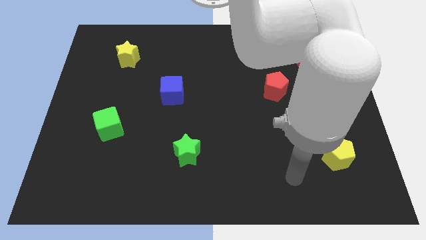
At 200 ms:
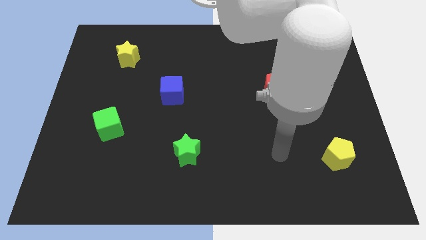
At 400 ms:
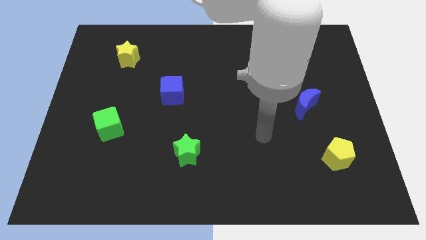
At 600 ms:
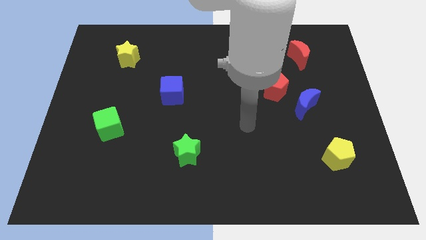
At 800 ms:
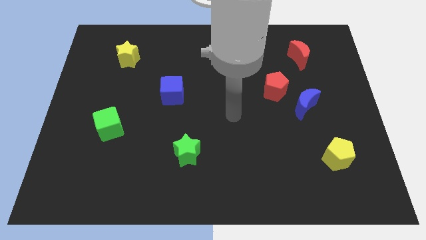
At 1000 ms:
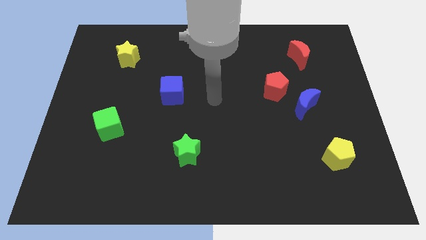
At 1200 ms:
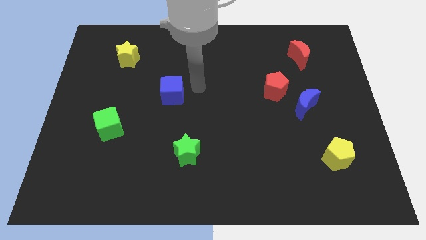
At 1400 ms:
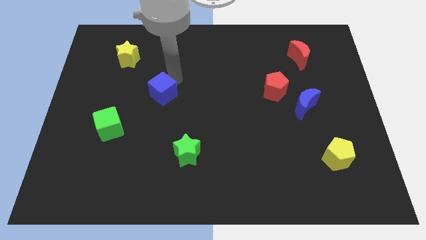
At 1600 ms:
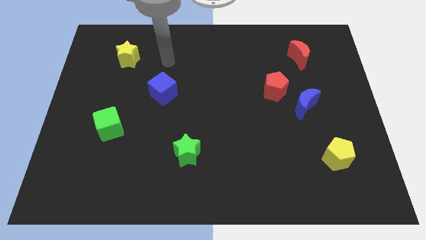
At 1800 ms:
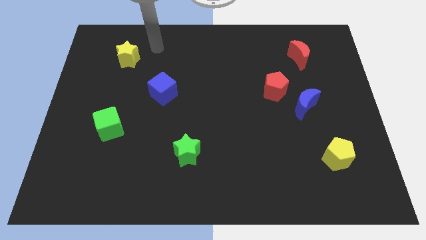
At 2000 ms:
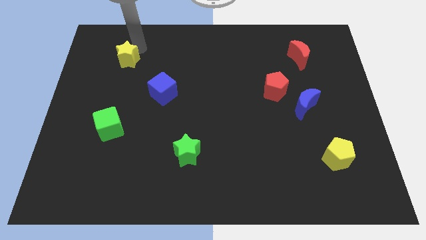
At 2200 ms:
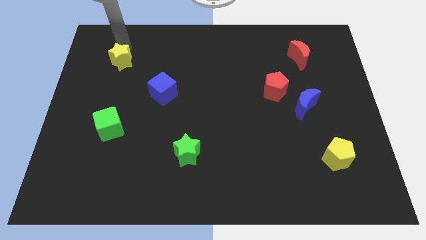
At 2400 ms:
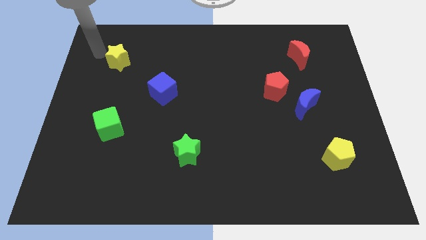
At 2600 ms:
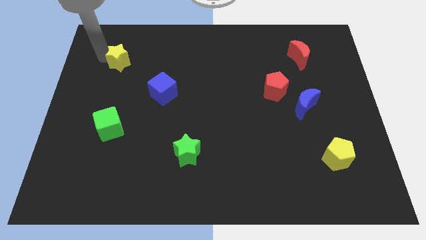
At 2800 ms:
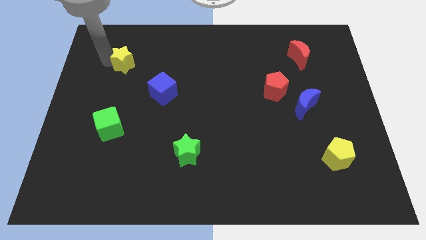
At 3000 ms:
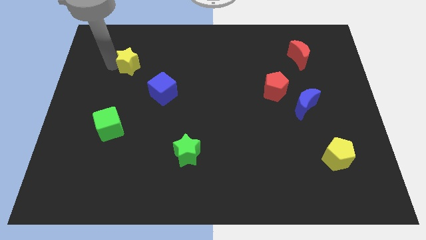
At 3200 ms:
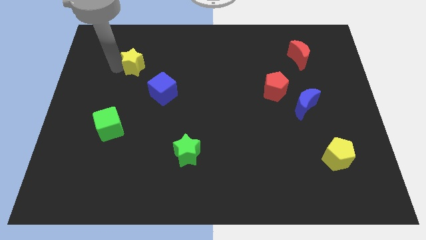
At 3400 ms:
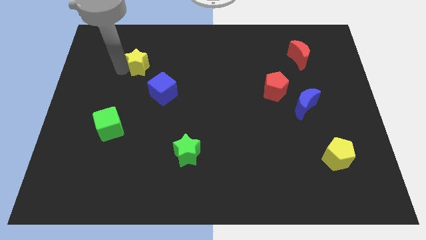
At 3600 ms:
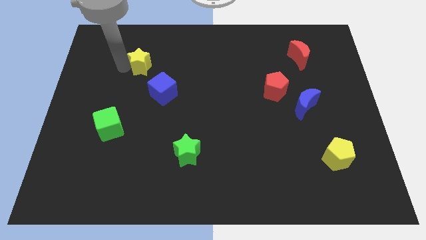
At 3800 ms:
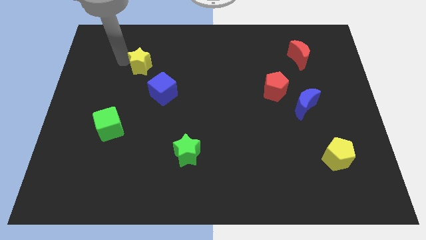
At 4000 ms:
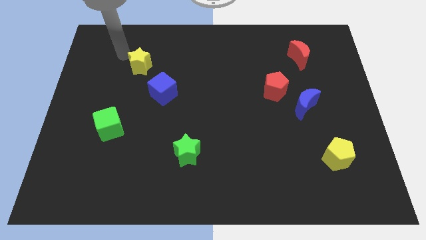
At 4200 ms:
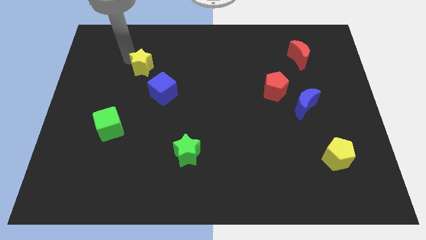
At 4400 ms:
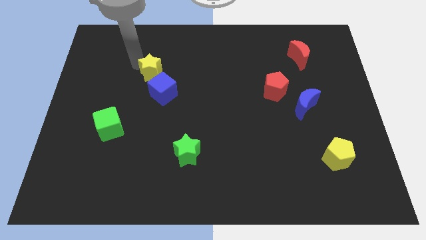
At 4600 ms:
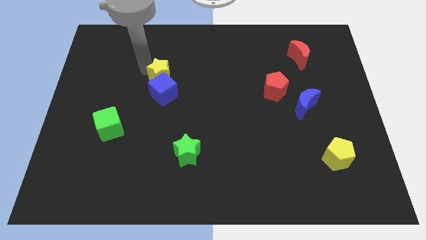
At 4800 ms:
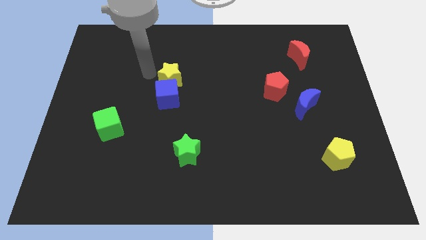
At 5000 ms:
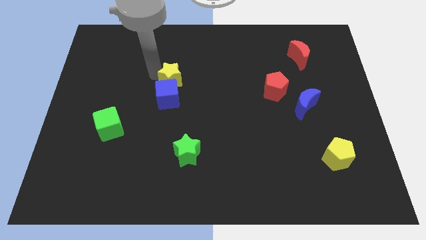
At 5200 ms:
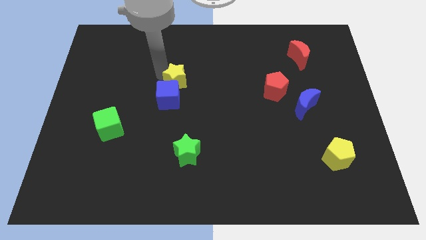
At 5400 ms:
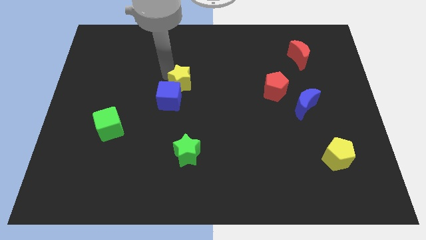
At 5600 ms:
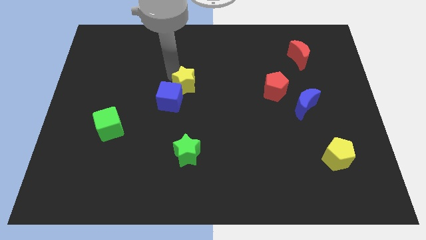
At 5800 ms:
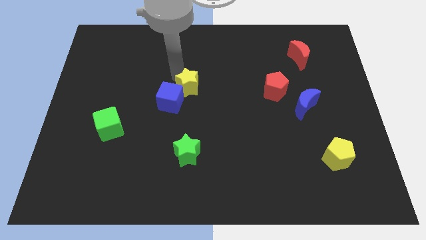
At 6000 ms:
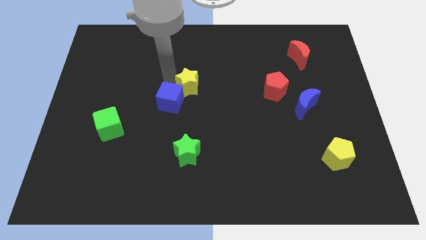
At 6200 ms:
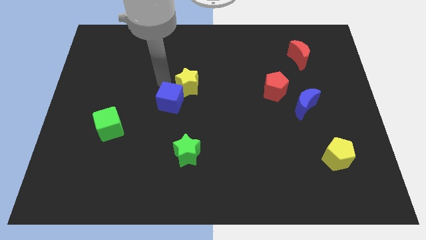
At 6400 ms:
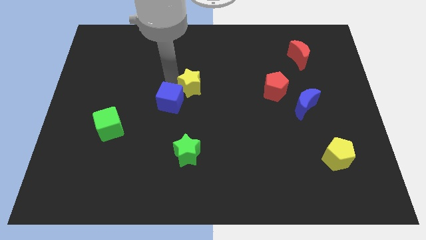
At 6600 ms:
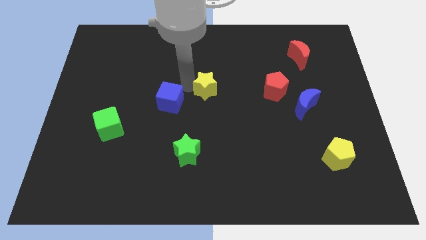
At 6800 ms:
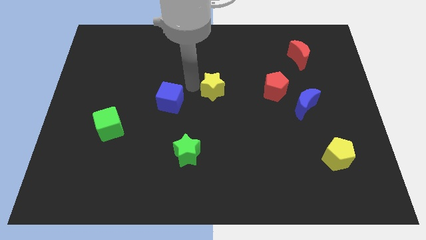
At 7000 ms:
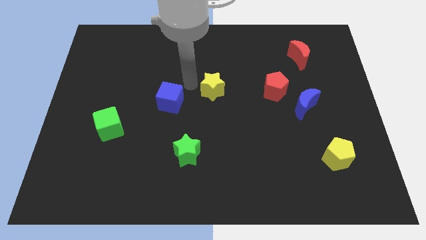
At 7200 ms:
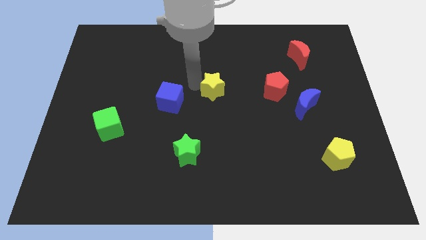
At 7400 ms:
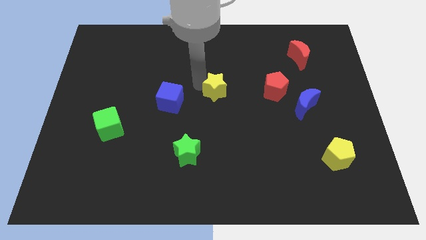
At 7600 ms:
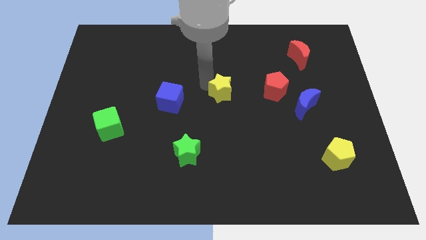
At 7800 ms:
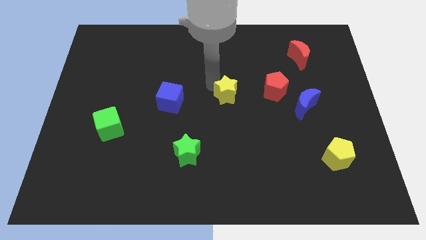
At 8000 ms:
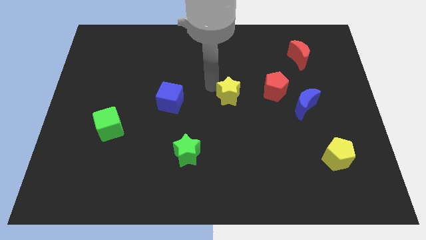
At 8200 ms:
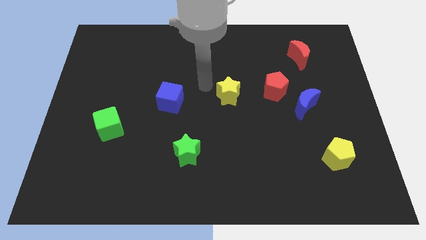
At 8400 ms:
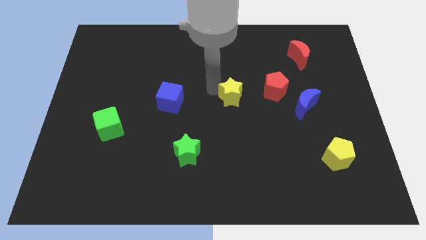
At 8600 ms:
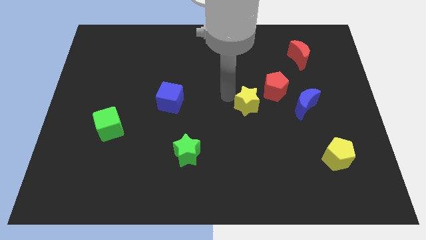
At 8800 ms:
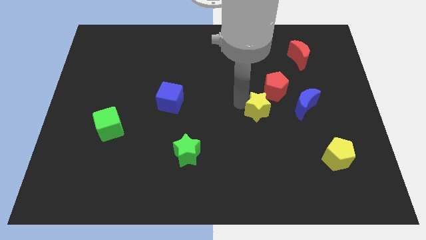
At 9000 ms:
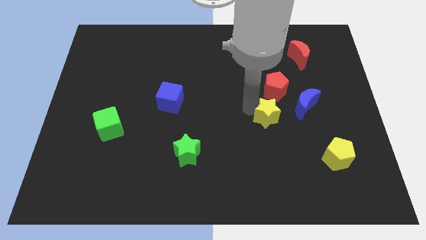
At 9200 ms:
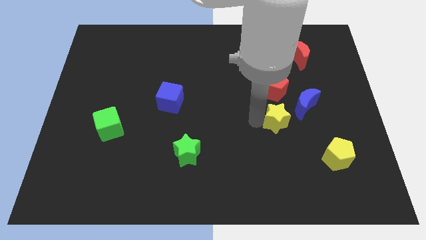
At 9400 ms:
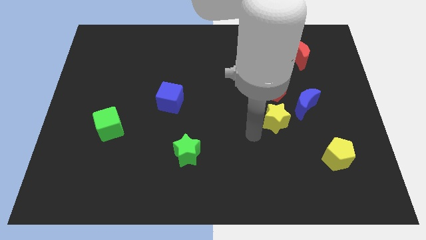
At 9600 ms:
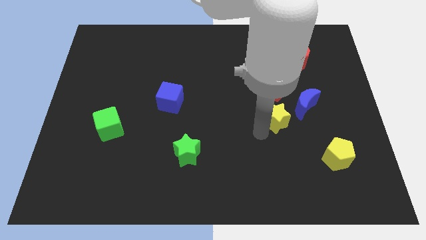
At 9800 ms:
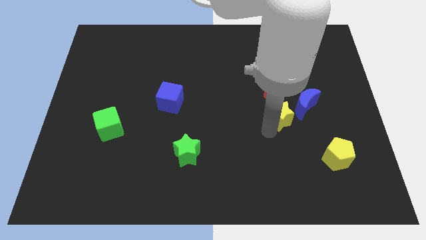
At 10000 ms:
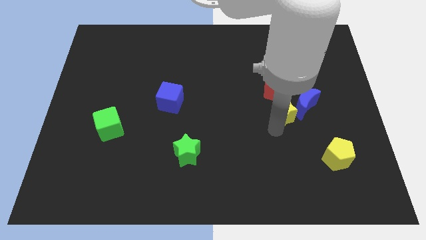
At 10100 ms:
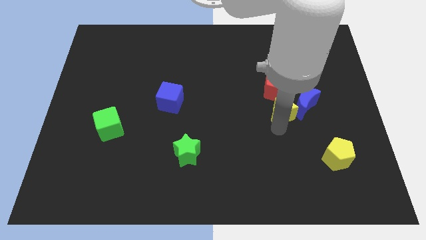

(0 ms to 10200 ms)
move the yellow star to the blue moon

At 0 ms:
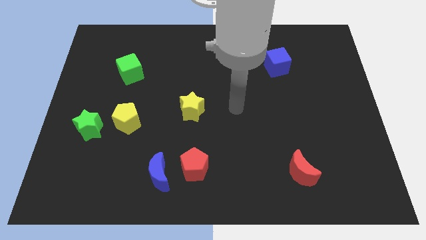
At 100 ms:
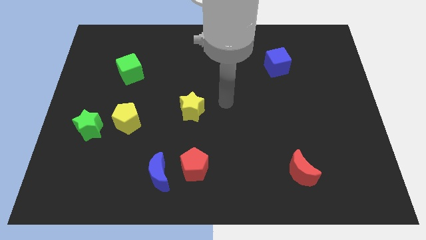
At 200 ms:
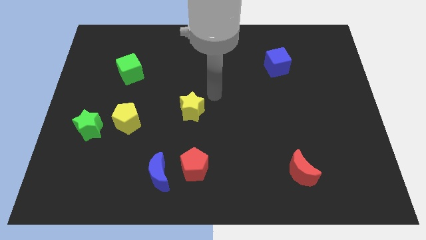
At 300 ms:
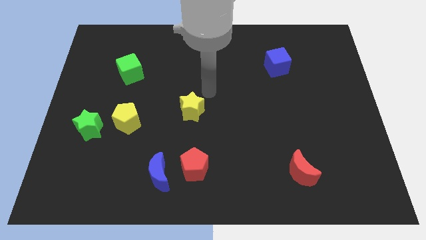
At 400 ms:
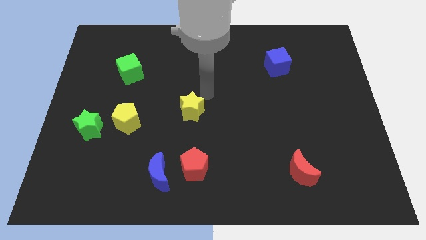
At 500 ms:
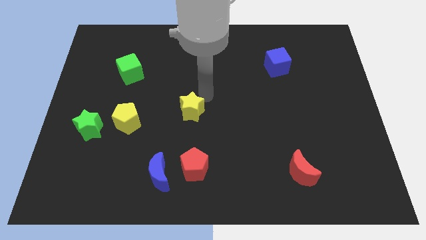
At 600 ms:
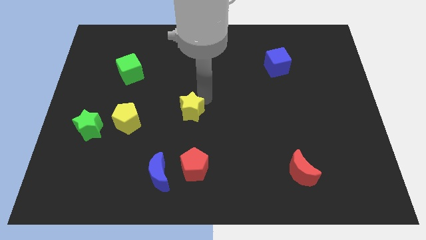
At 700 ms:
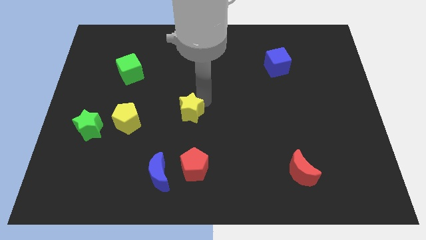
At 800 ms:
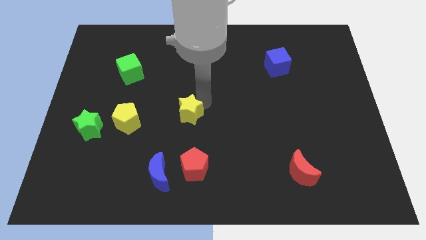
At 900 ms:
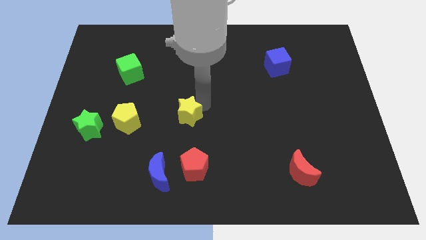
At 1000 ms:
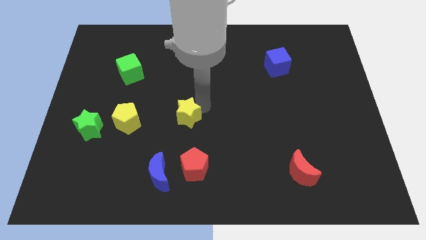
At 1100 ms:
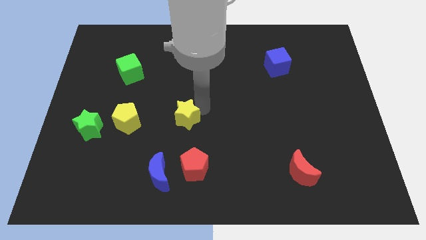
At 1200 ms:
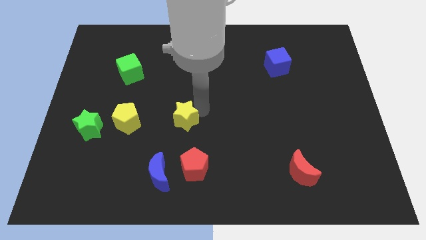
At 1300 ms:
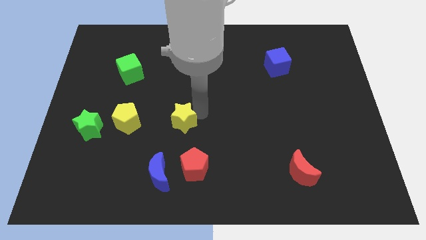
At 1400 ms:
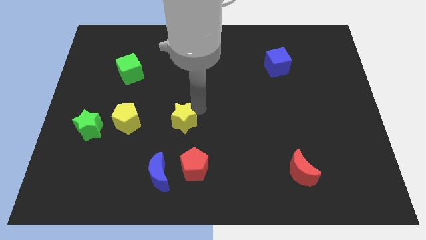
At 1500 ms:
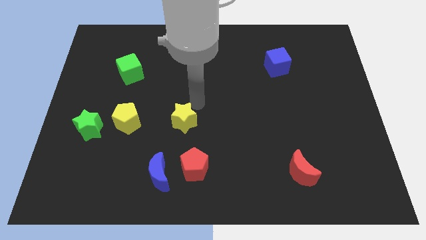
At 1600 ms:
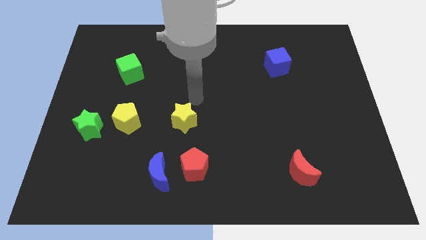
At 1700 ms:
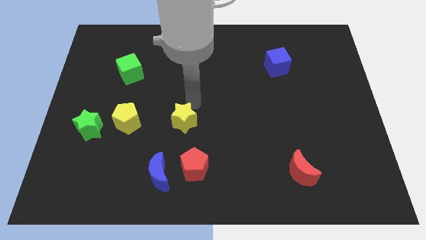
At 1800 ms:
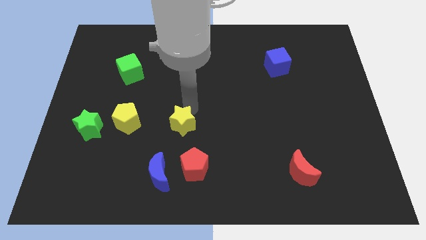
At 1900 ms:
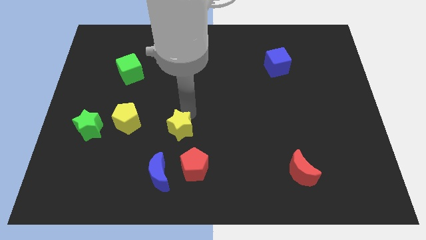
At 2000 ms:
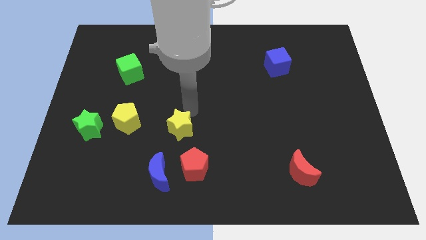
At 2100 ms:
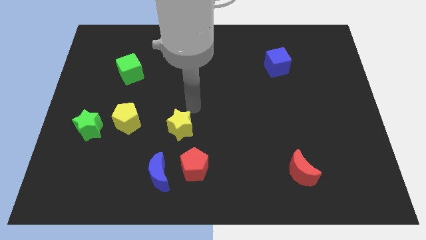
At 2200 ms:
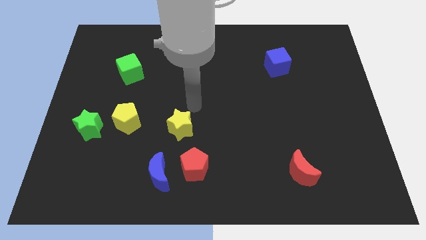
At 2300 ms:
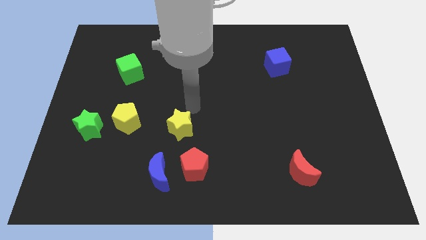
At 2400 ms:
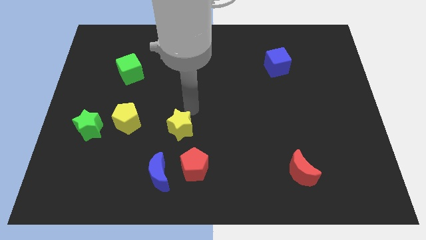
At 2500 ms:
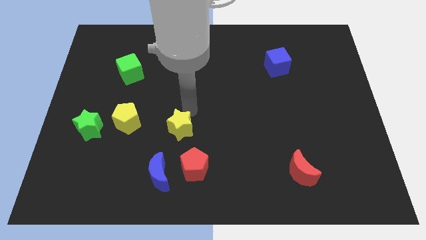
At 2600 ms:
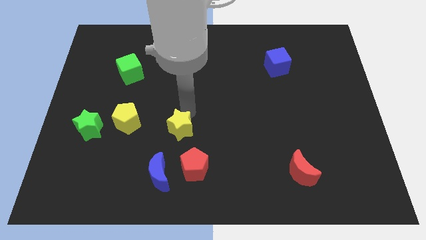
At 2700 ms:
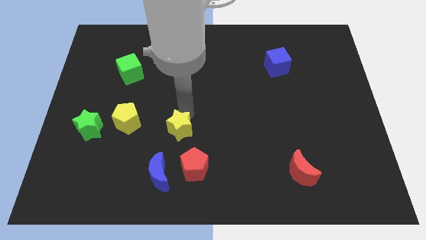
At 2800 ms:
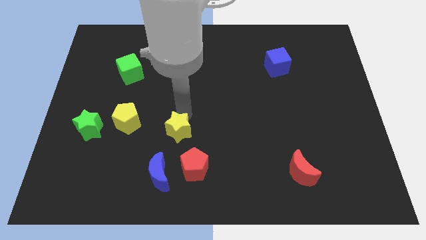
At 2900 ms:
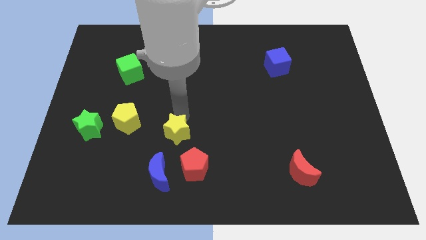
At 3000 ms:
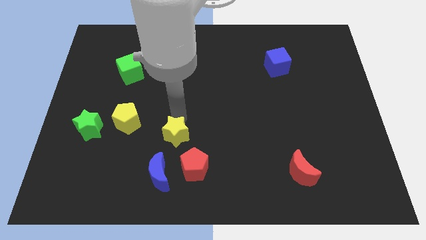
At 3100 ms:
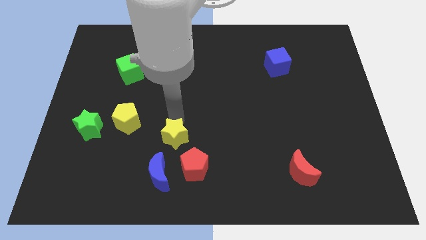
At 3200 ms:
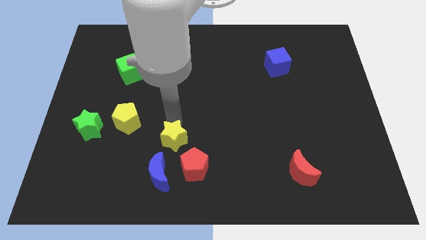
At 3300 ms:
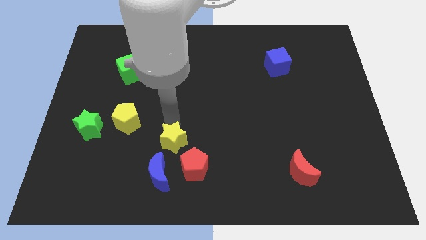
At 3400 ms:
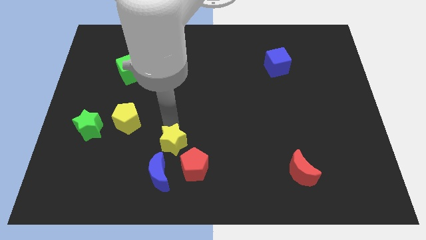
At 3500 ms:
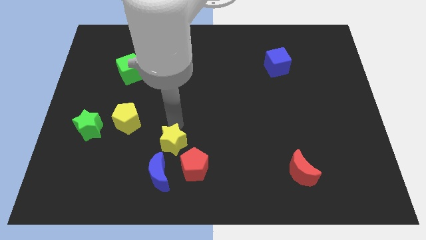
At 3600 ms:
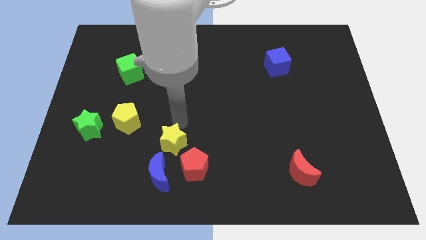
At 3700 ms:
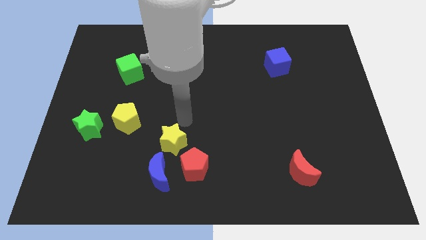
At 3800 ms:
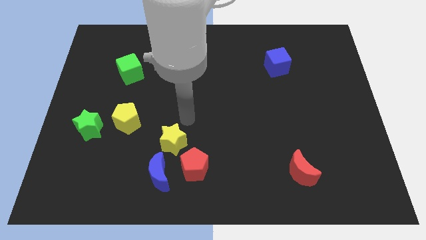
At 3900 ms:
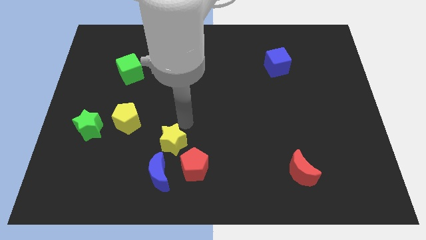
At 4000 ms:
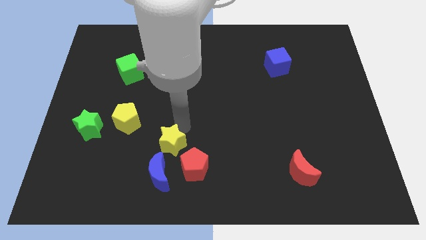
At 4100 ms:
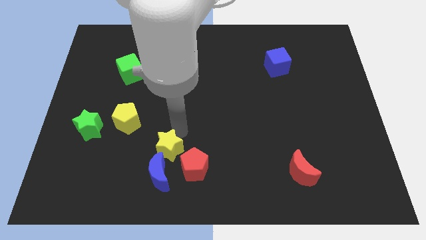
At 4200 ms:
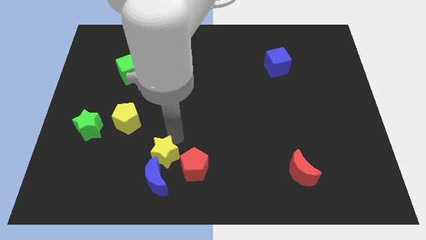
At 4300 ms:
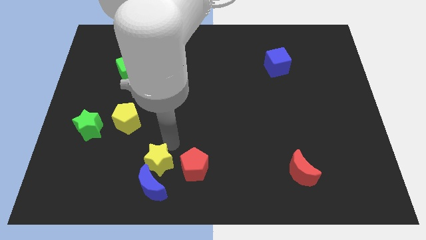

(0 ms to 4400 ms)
slide the yellow star next to the blue moon
